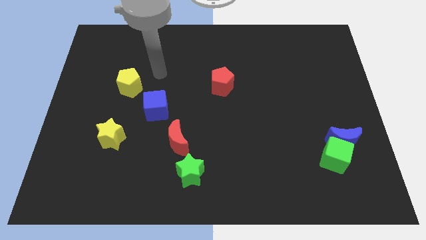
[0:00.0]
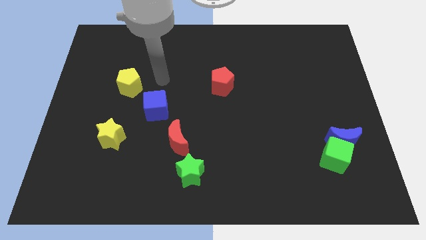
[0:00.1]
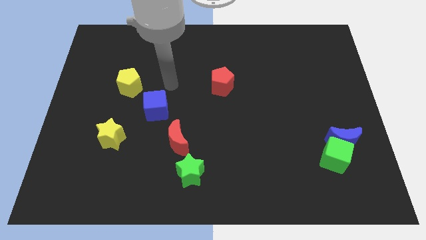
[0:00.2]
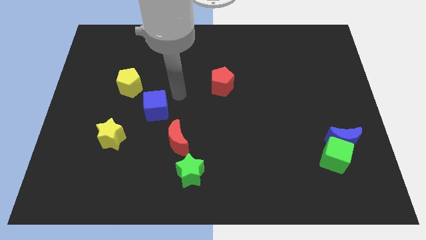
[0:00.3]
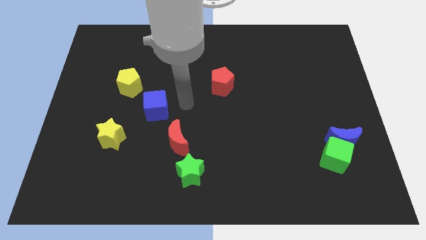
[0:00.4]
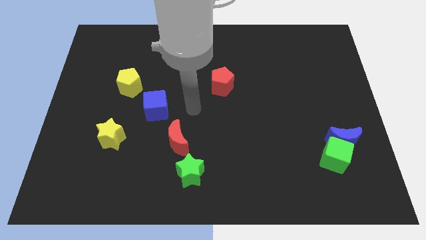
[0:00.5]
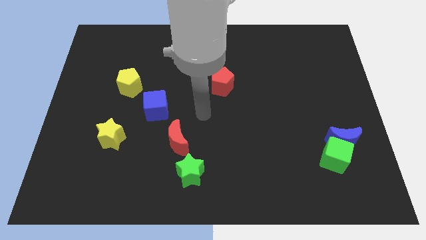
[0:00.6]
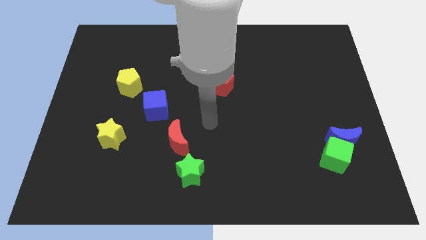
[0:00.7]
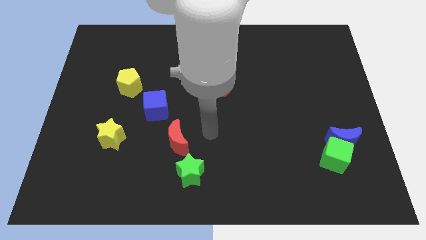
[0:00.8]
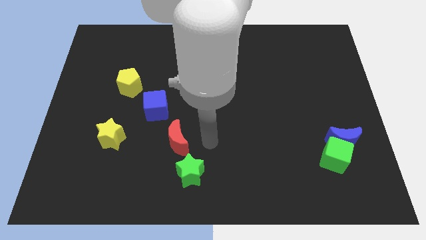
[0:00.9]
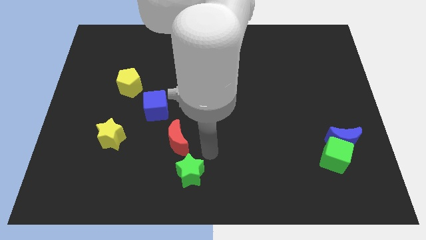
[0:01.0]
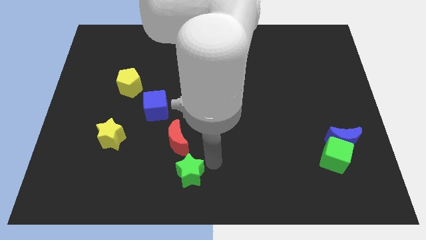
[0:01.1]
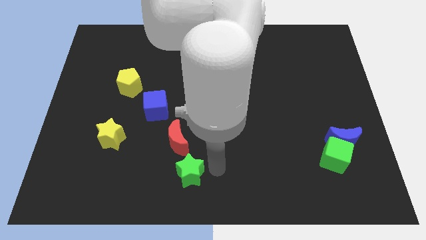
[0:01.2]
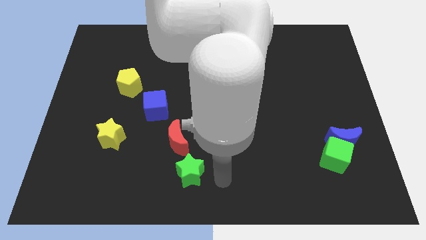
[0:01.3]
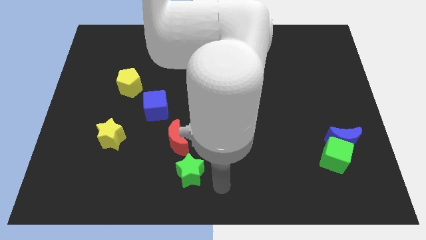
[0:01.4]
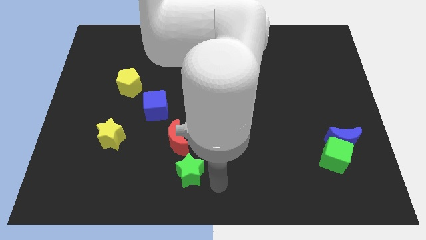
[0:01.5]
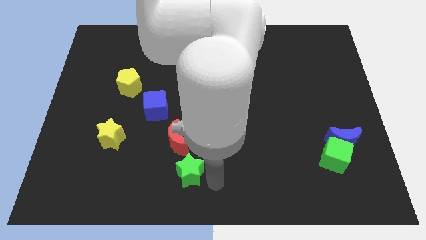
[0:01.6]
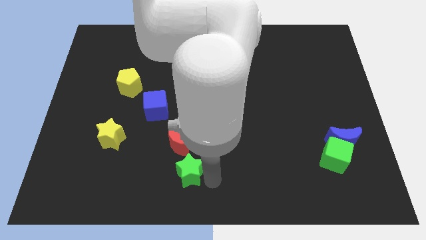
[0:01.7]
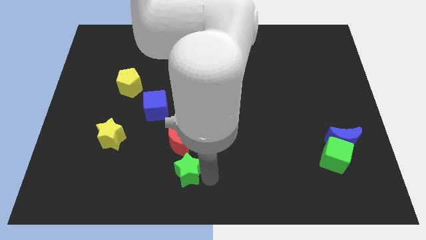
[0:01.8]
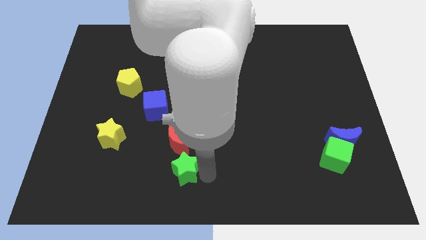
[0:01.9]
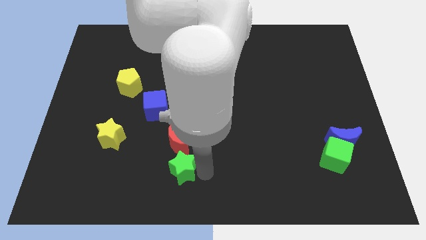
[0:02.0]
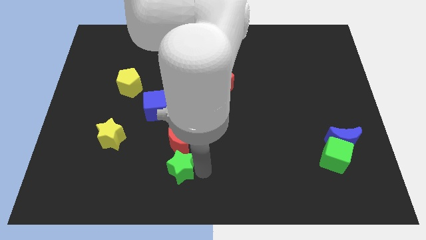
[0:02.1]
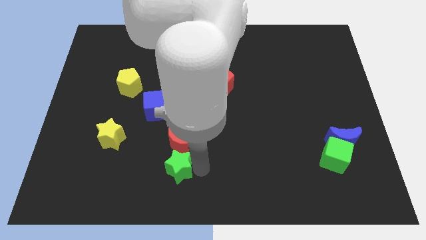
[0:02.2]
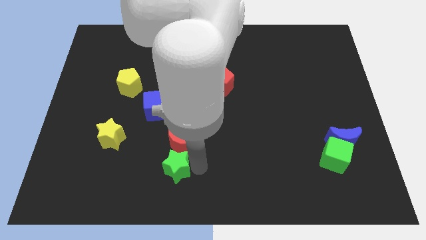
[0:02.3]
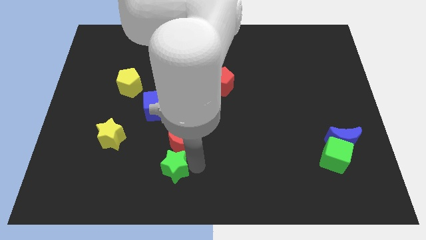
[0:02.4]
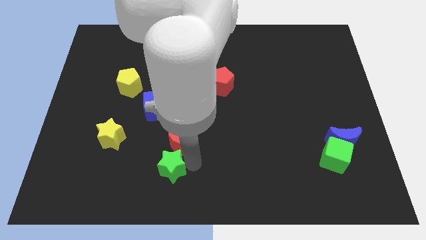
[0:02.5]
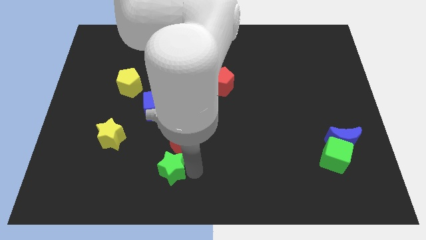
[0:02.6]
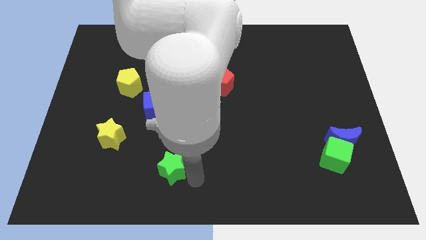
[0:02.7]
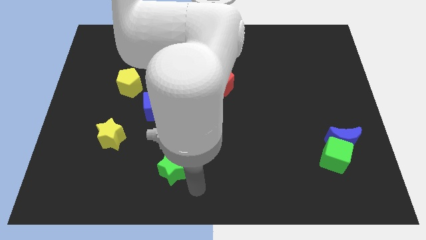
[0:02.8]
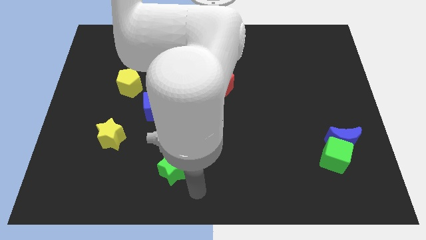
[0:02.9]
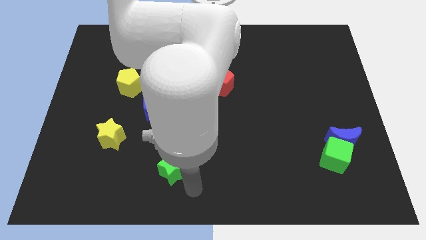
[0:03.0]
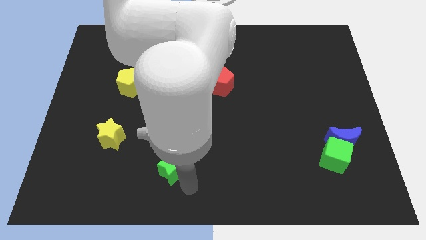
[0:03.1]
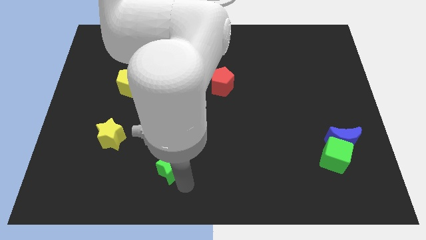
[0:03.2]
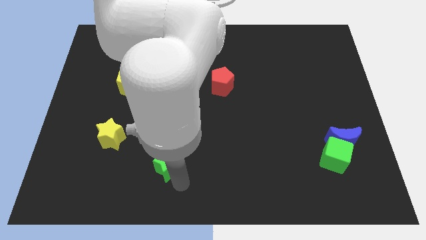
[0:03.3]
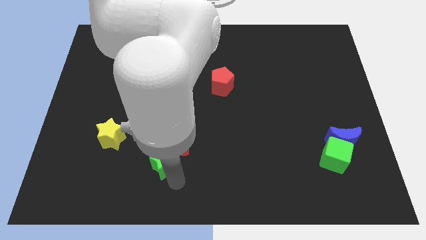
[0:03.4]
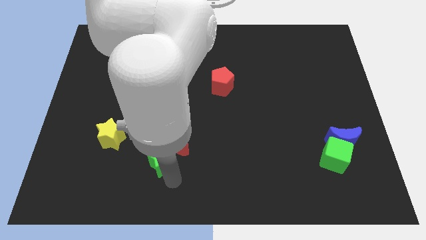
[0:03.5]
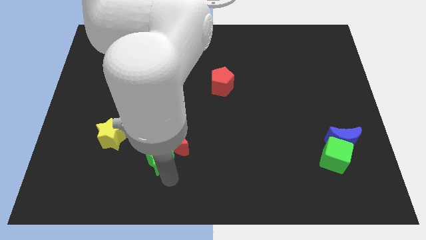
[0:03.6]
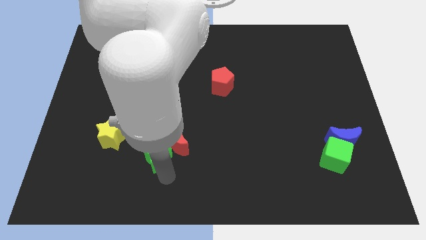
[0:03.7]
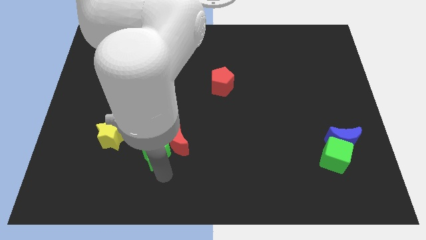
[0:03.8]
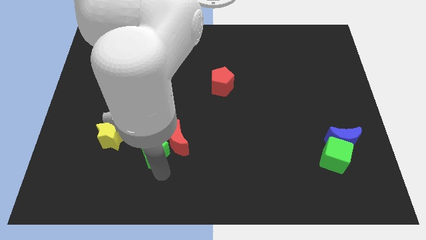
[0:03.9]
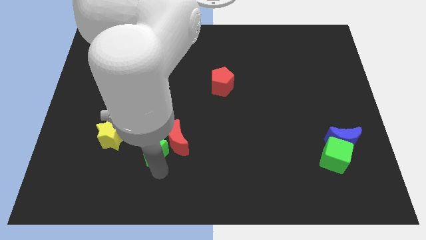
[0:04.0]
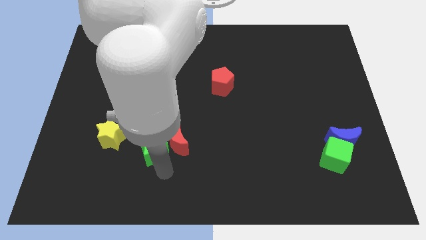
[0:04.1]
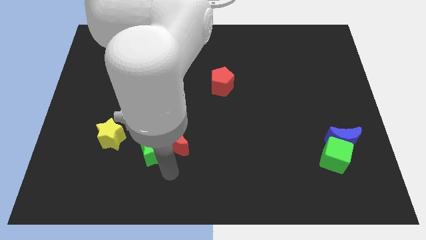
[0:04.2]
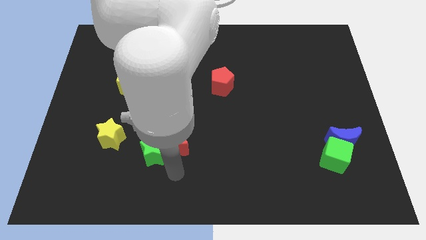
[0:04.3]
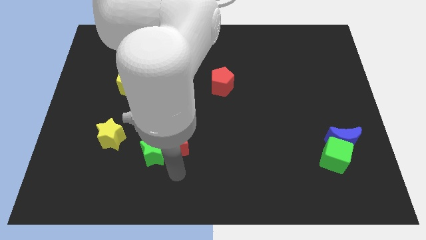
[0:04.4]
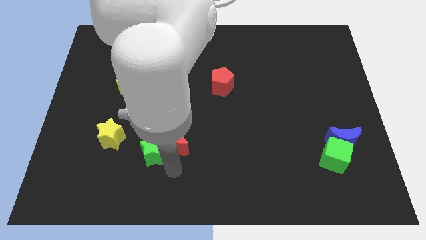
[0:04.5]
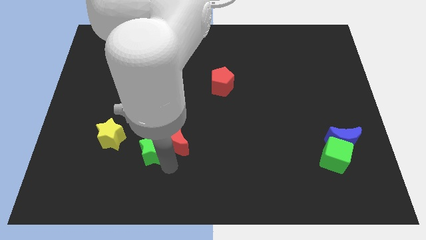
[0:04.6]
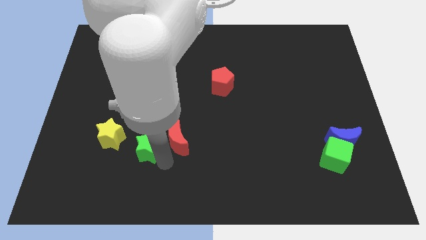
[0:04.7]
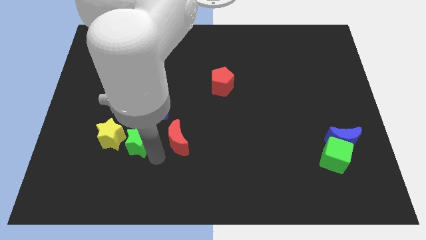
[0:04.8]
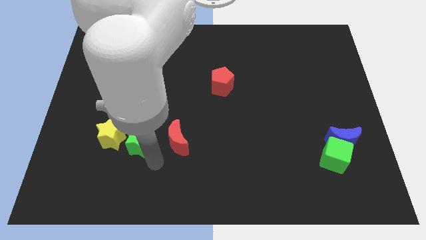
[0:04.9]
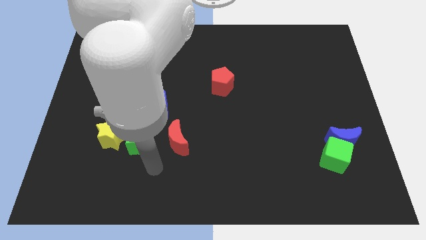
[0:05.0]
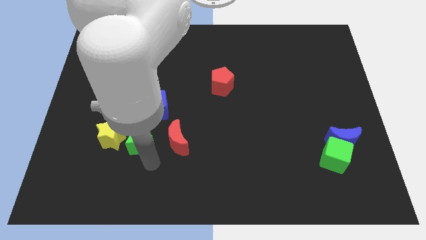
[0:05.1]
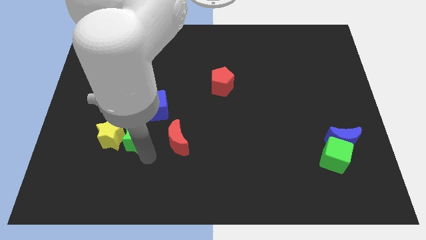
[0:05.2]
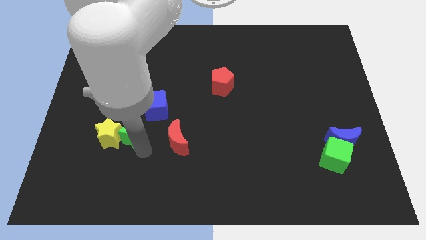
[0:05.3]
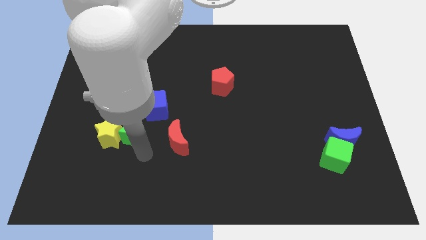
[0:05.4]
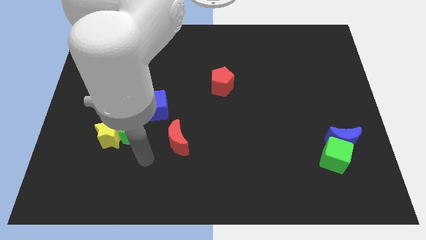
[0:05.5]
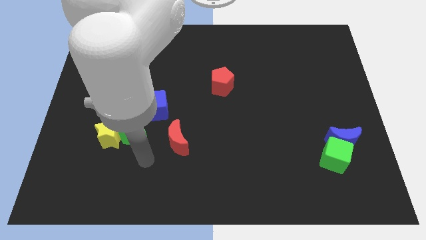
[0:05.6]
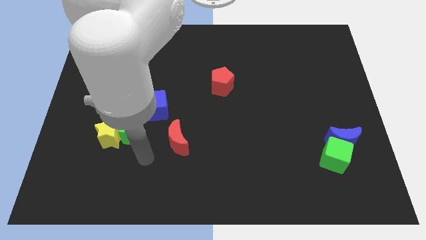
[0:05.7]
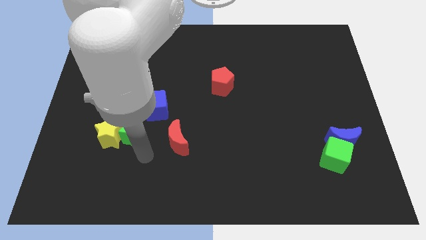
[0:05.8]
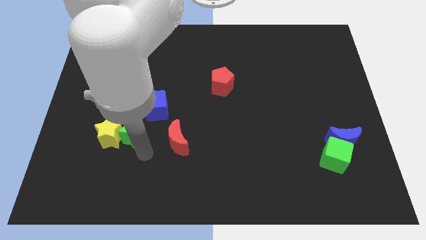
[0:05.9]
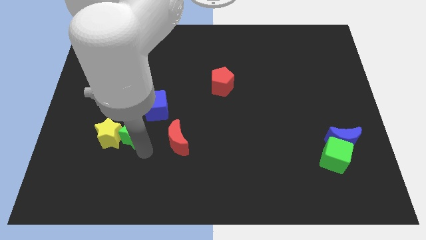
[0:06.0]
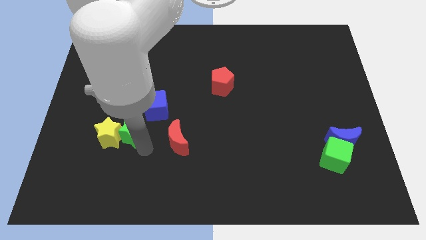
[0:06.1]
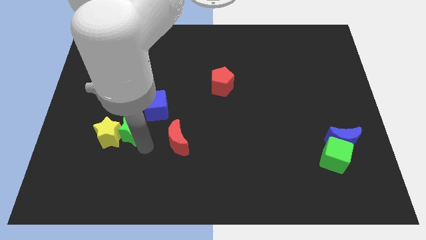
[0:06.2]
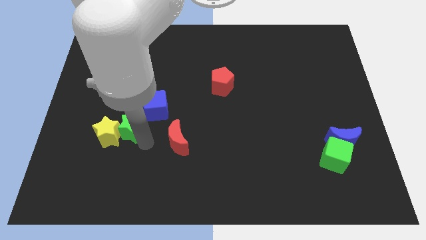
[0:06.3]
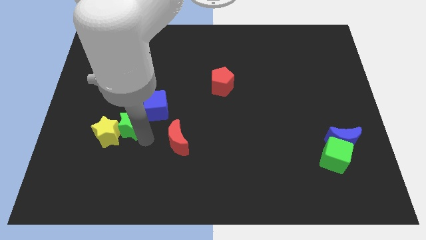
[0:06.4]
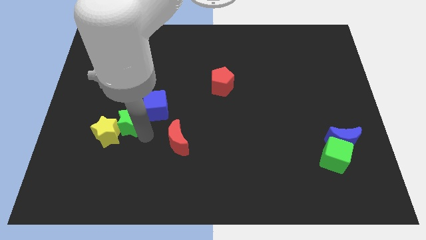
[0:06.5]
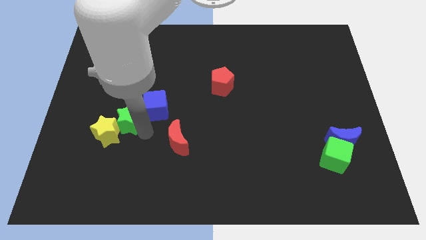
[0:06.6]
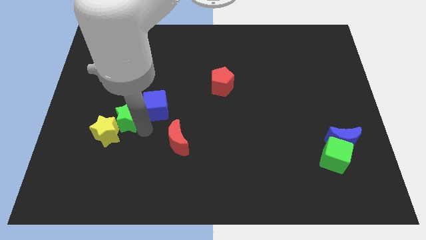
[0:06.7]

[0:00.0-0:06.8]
slide the green star diagonally upwards and to the left

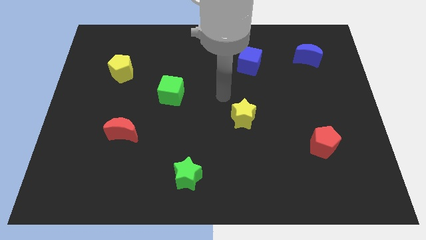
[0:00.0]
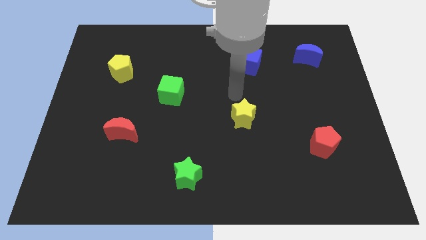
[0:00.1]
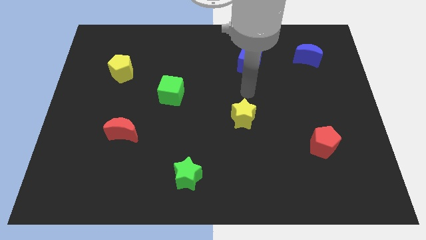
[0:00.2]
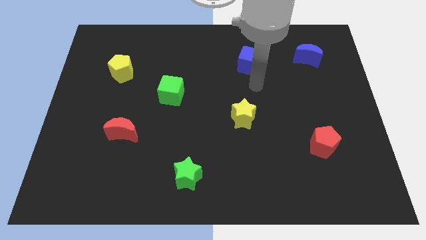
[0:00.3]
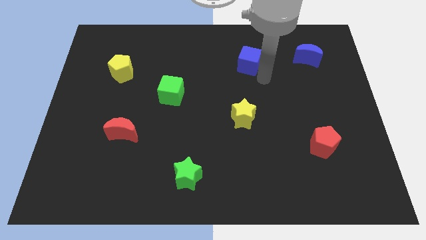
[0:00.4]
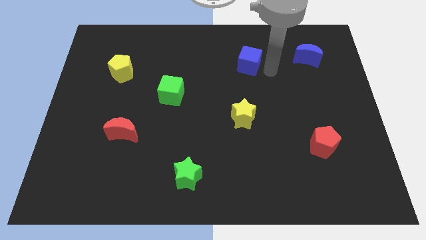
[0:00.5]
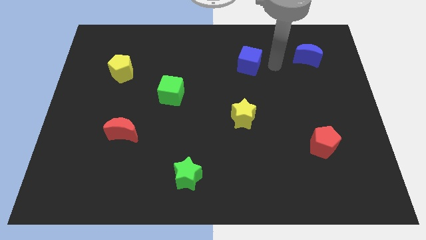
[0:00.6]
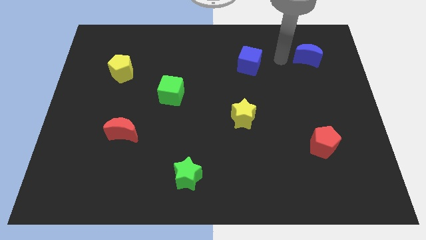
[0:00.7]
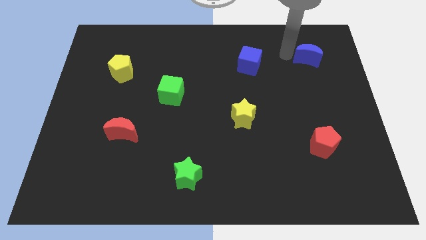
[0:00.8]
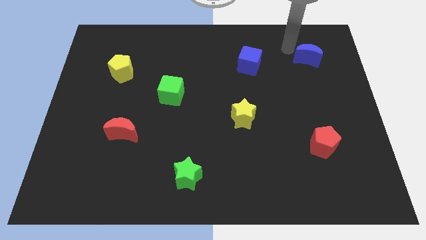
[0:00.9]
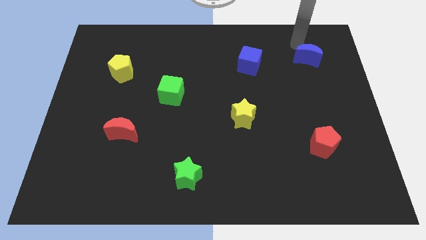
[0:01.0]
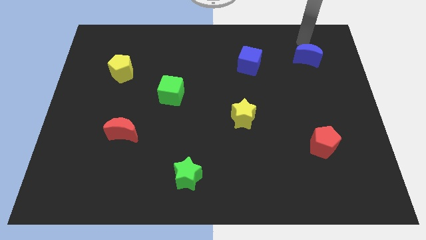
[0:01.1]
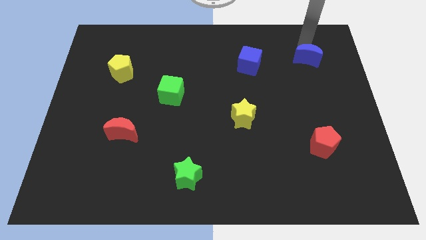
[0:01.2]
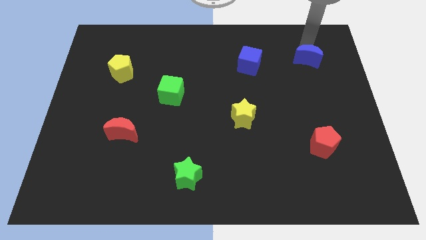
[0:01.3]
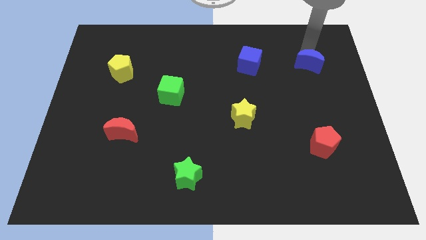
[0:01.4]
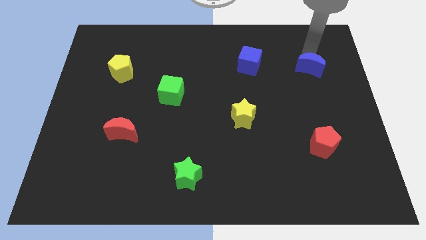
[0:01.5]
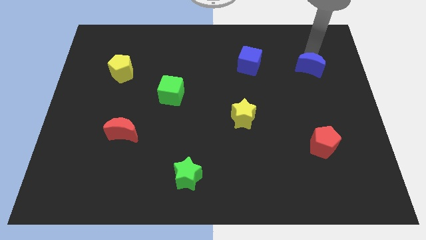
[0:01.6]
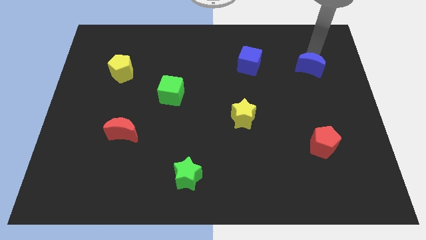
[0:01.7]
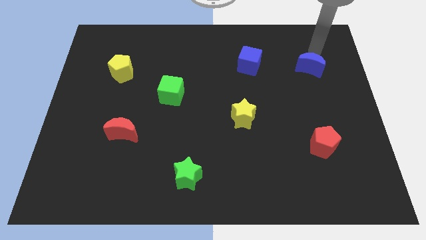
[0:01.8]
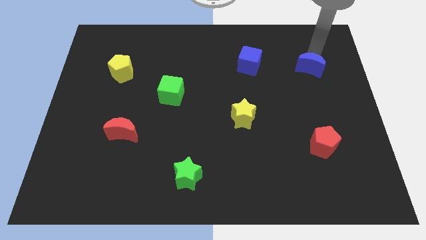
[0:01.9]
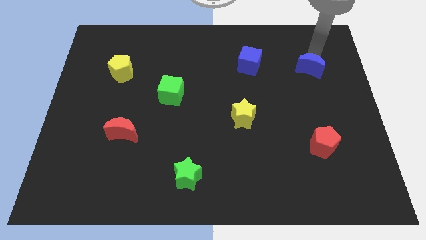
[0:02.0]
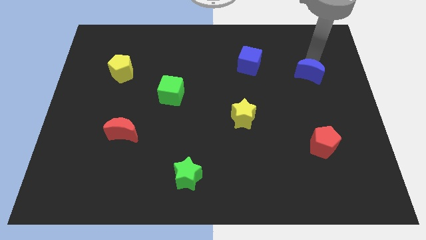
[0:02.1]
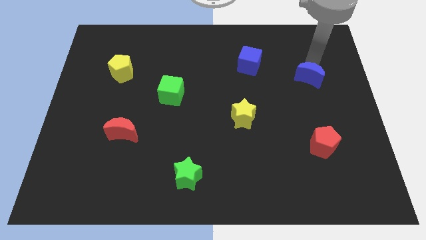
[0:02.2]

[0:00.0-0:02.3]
slightly push the blue moon downwards
